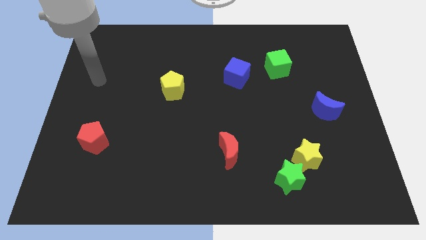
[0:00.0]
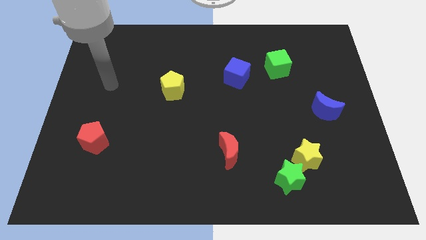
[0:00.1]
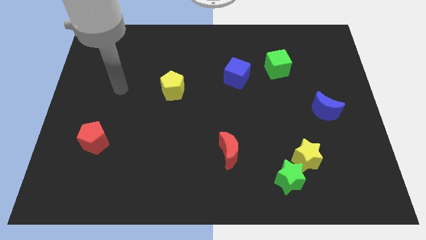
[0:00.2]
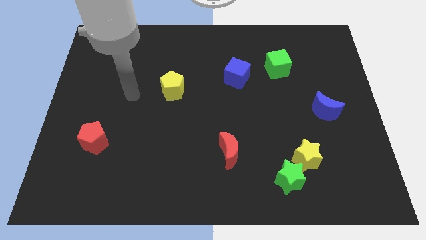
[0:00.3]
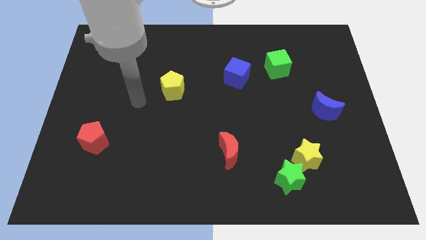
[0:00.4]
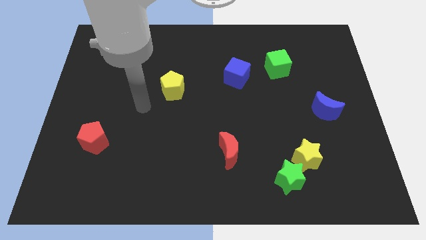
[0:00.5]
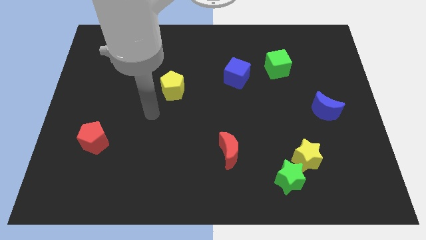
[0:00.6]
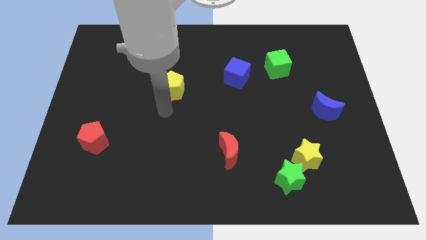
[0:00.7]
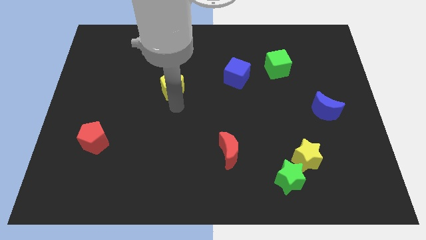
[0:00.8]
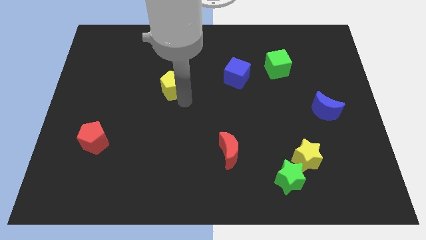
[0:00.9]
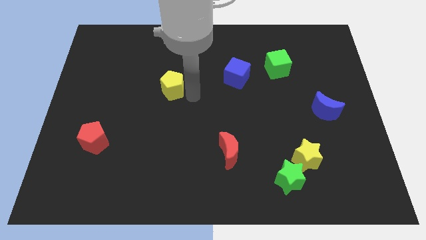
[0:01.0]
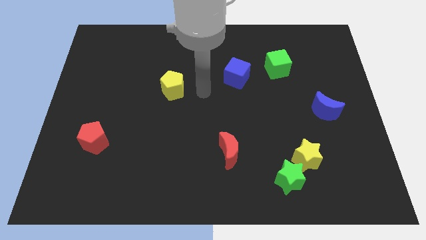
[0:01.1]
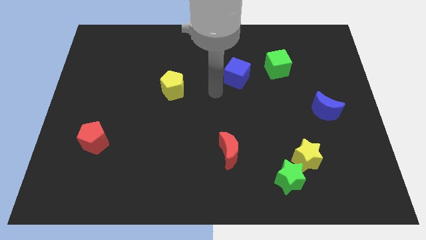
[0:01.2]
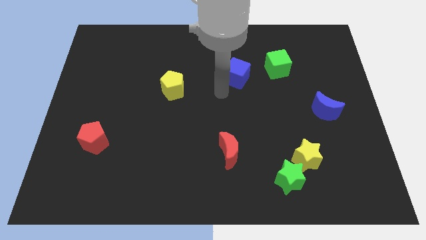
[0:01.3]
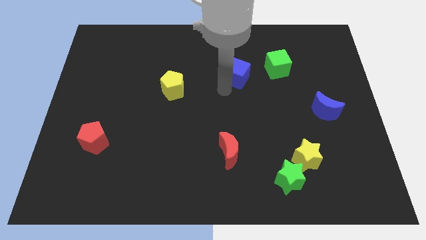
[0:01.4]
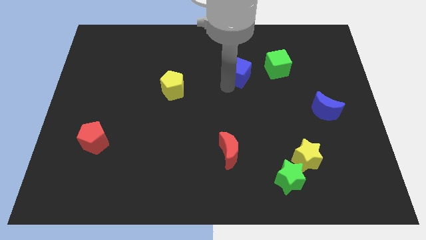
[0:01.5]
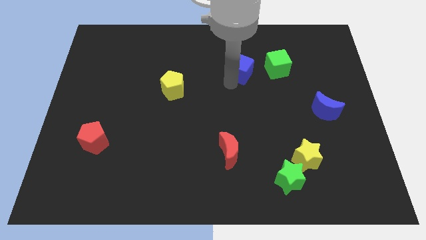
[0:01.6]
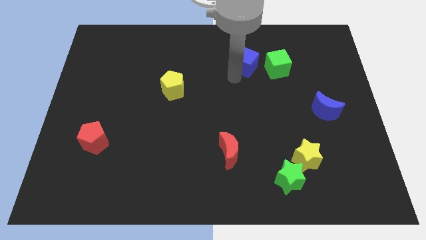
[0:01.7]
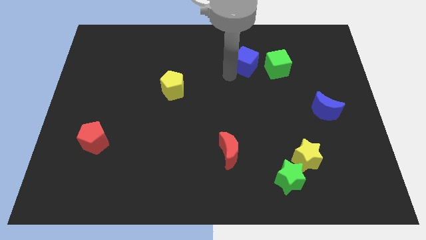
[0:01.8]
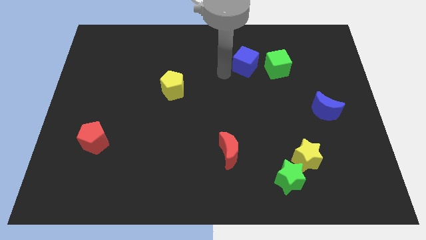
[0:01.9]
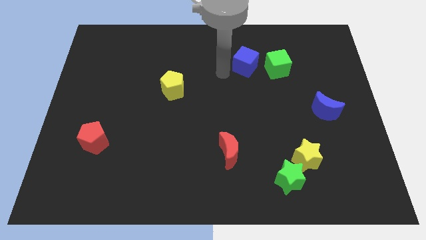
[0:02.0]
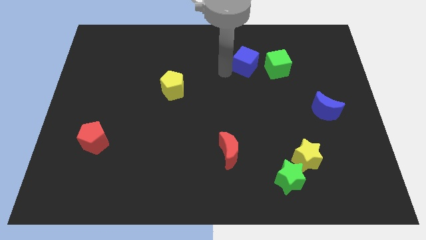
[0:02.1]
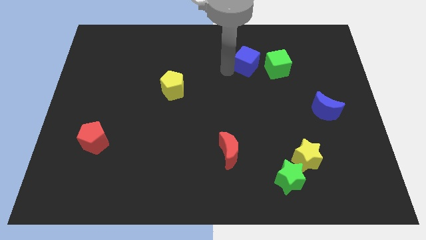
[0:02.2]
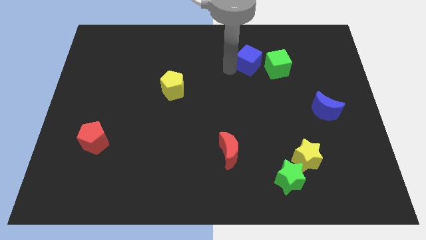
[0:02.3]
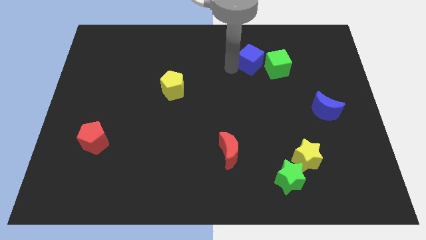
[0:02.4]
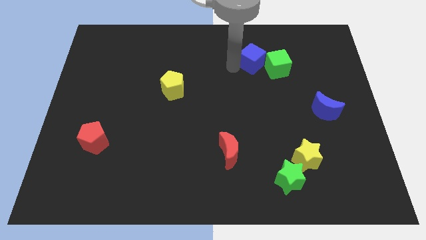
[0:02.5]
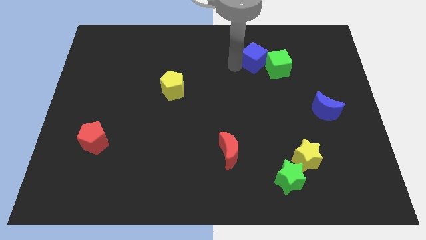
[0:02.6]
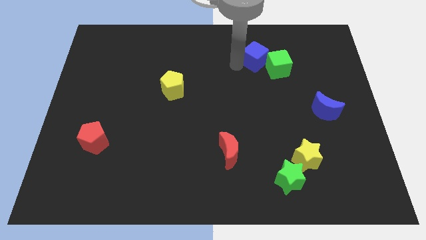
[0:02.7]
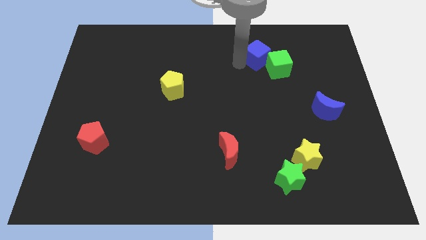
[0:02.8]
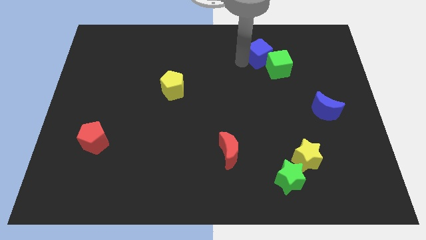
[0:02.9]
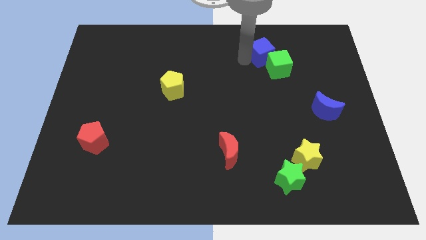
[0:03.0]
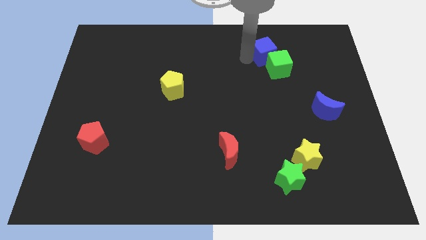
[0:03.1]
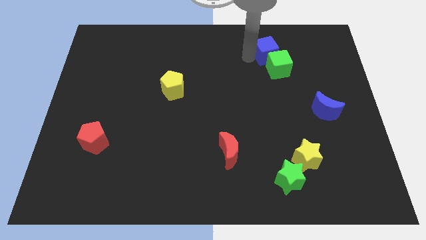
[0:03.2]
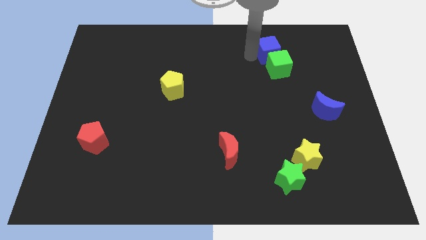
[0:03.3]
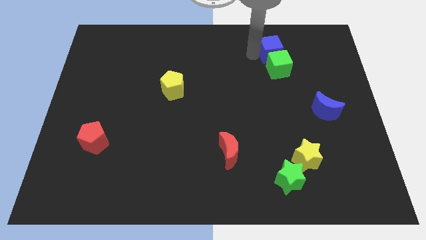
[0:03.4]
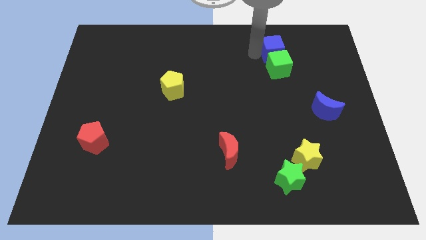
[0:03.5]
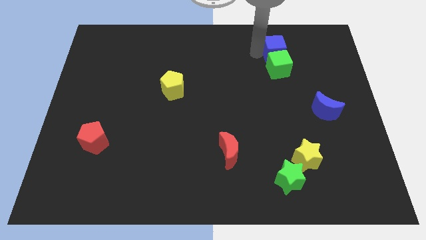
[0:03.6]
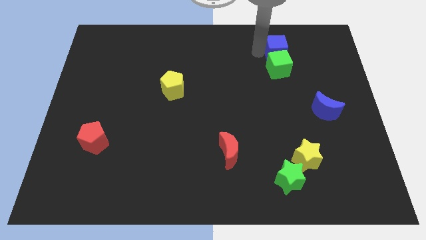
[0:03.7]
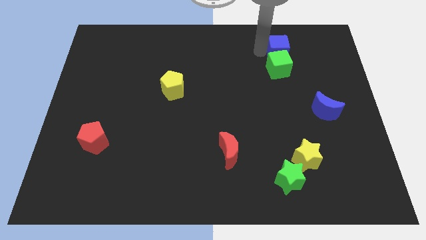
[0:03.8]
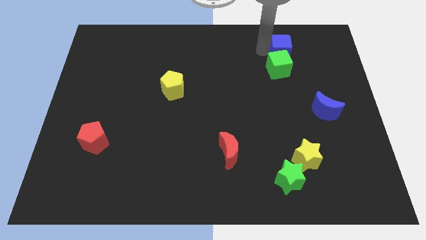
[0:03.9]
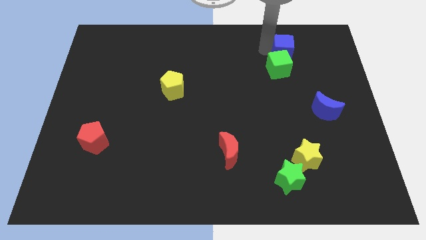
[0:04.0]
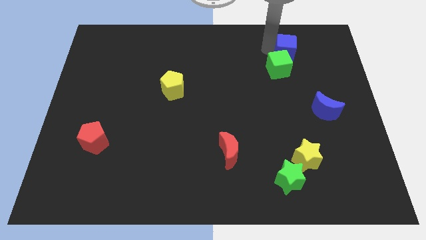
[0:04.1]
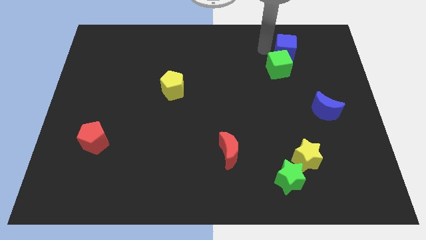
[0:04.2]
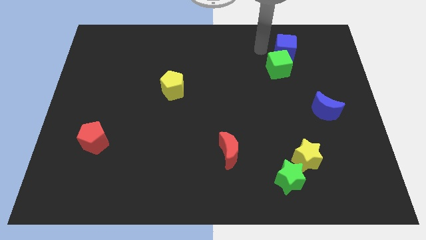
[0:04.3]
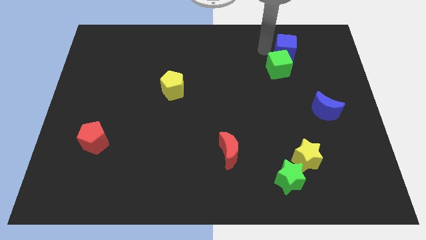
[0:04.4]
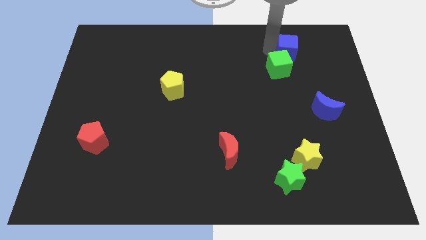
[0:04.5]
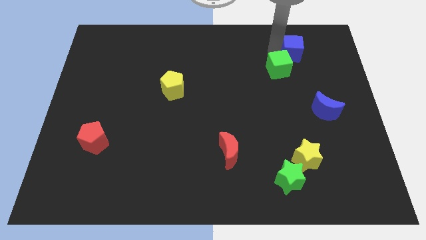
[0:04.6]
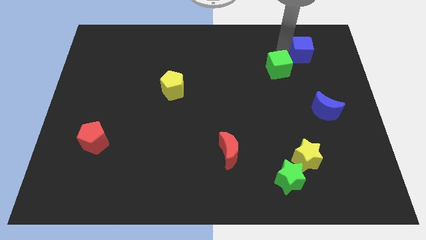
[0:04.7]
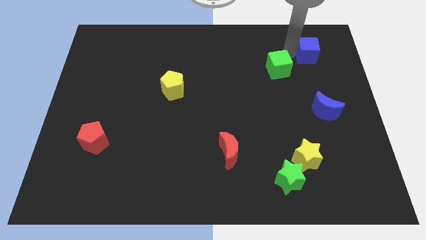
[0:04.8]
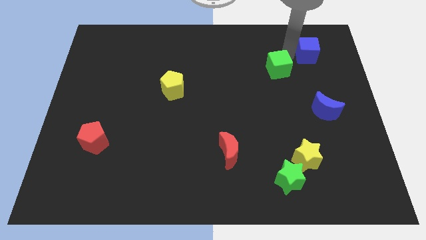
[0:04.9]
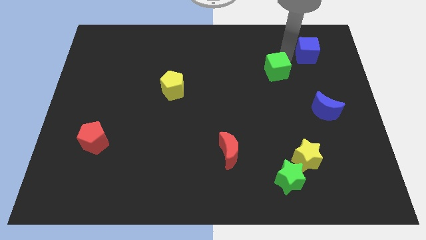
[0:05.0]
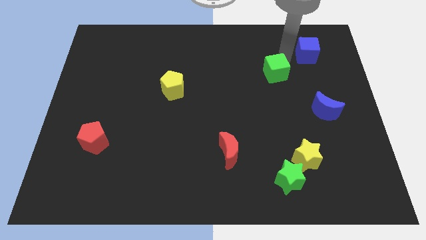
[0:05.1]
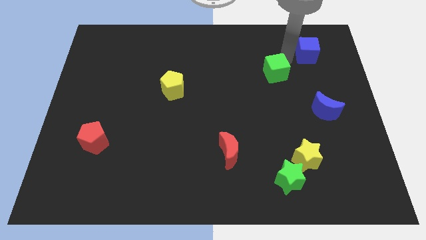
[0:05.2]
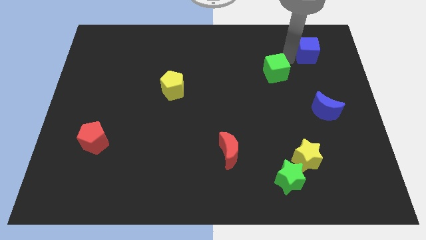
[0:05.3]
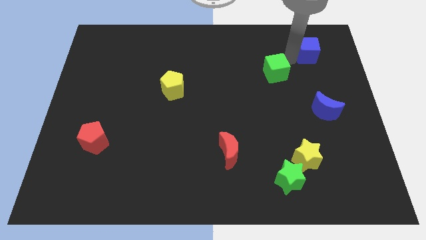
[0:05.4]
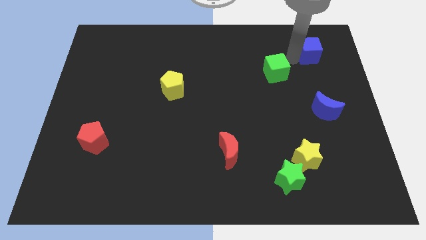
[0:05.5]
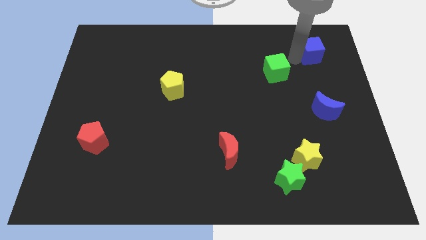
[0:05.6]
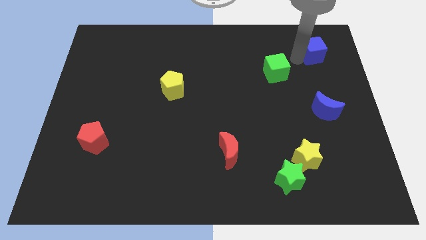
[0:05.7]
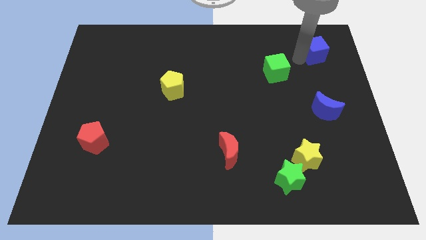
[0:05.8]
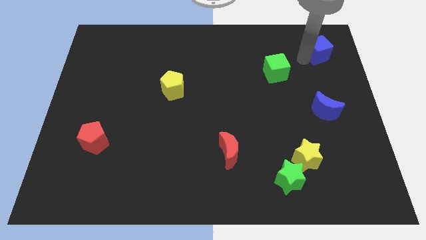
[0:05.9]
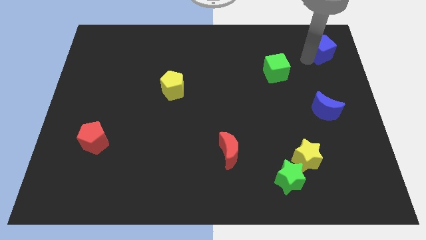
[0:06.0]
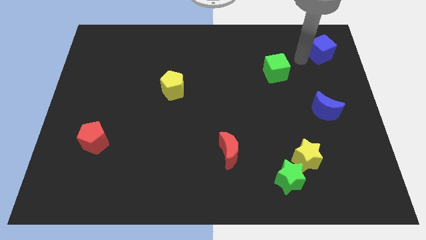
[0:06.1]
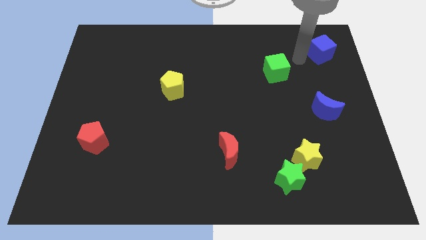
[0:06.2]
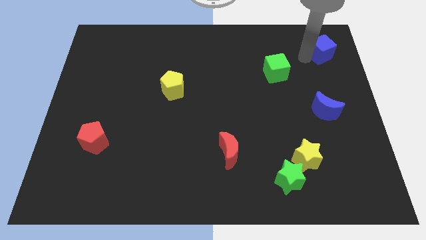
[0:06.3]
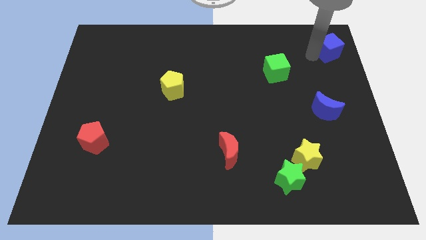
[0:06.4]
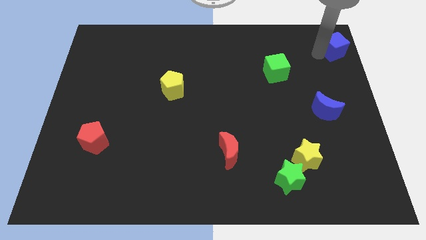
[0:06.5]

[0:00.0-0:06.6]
push the blue cube to the upper right corner
